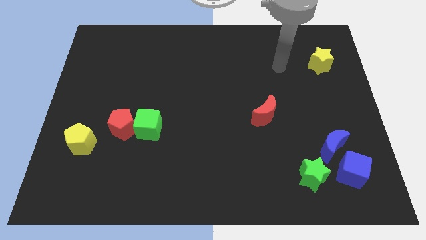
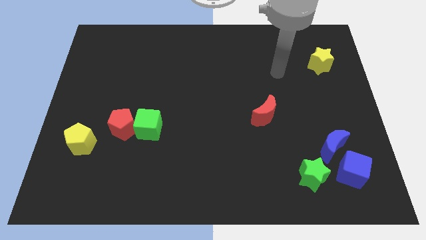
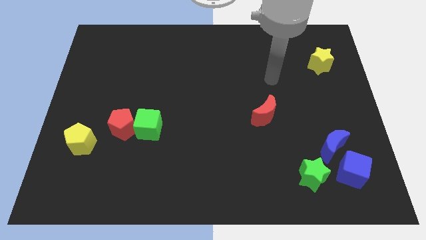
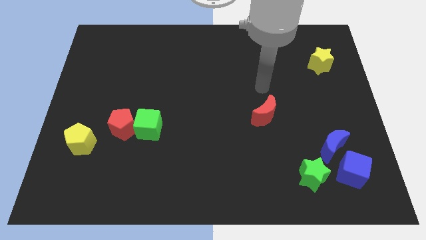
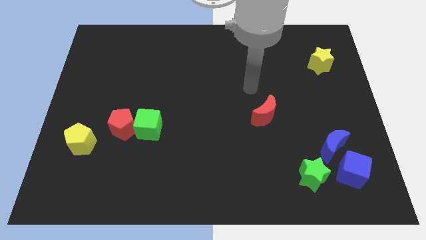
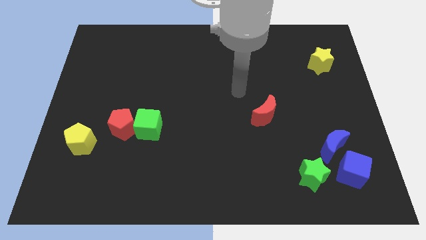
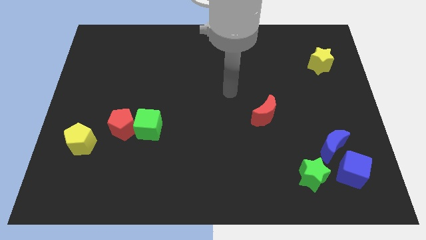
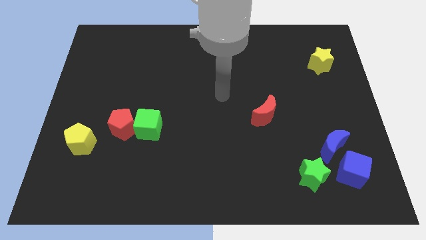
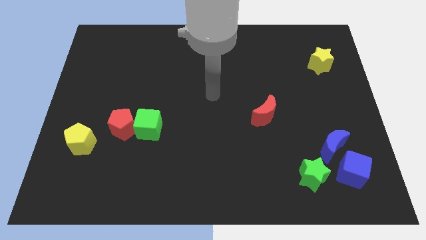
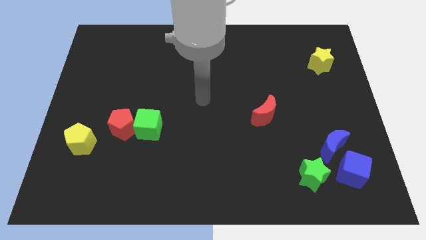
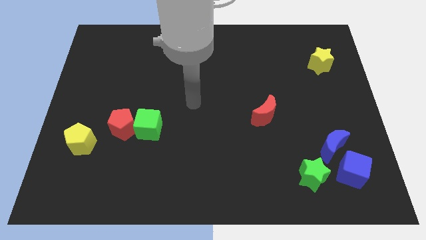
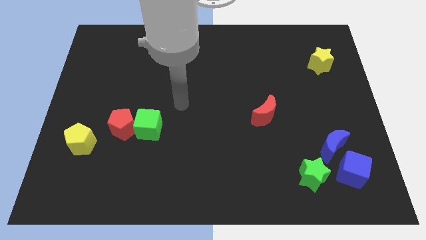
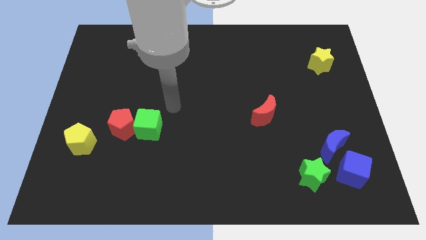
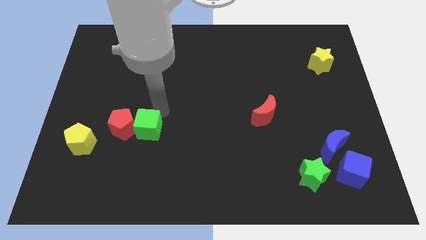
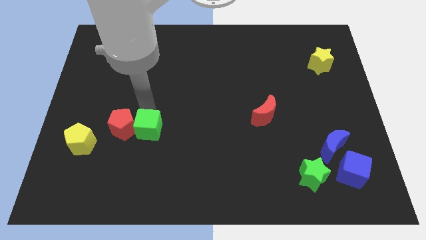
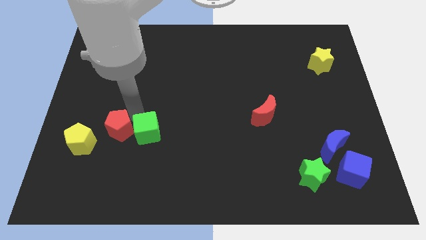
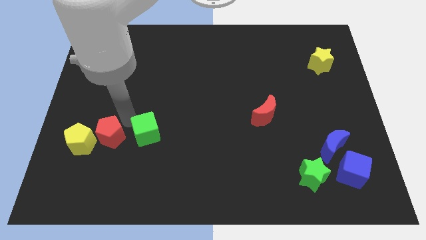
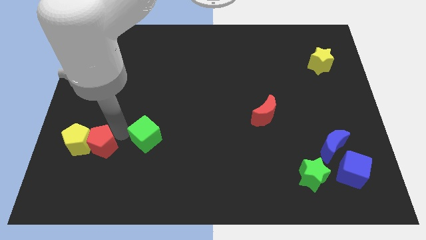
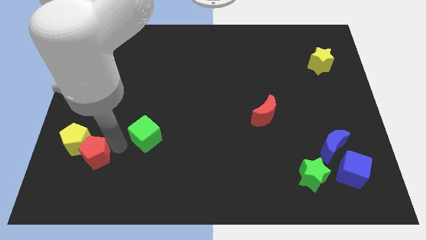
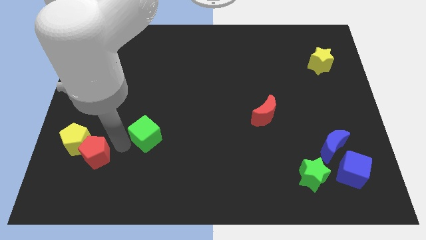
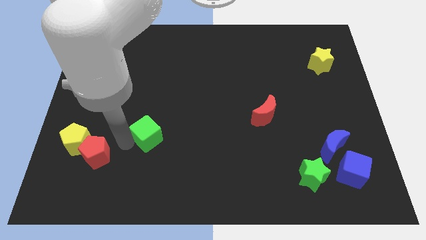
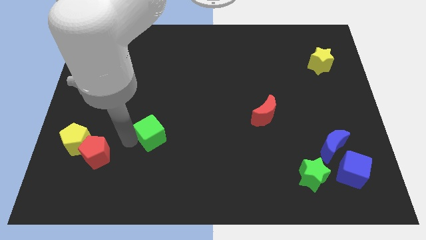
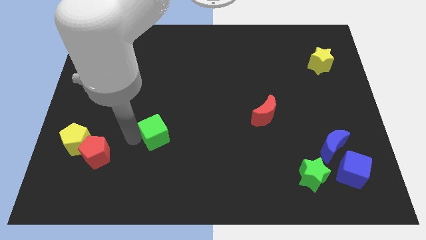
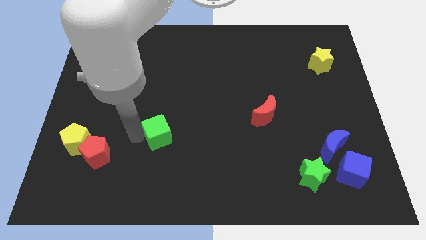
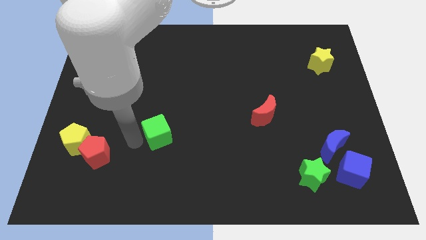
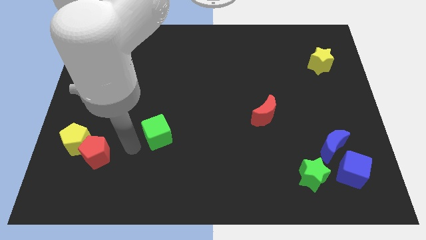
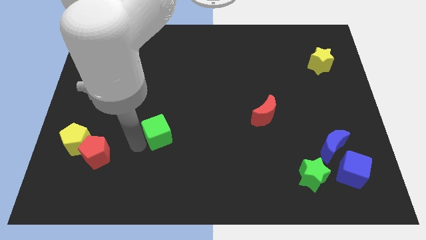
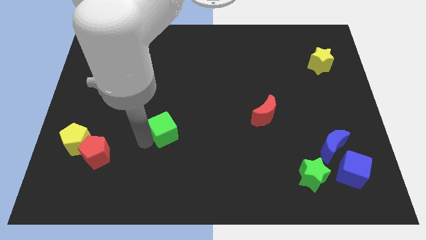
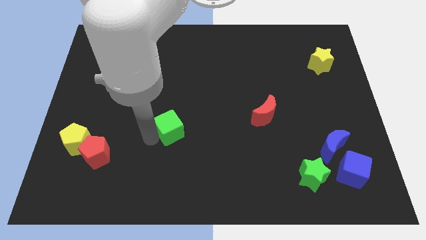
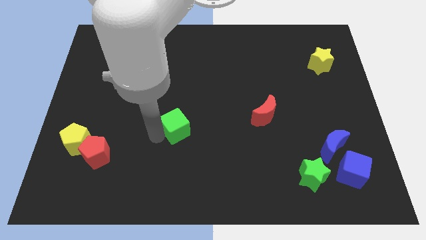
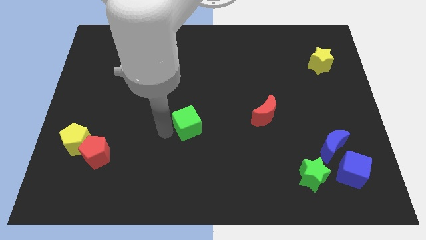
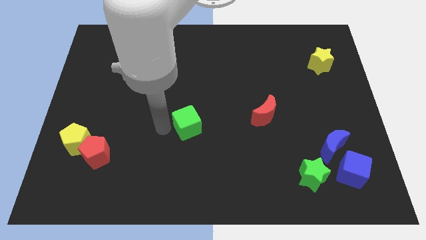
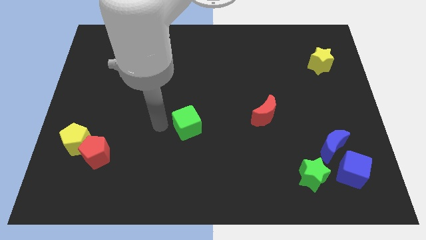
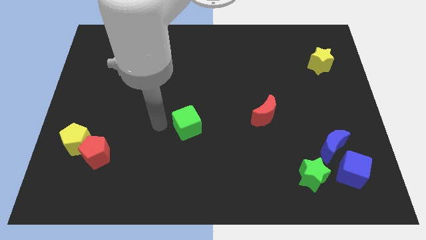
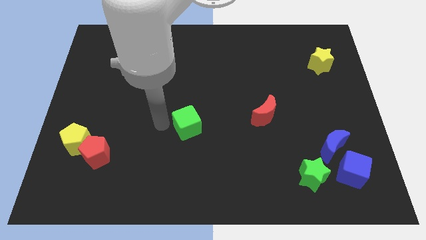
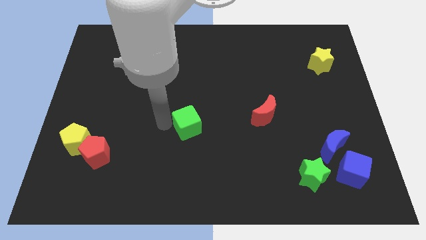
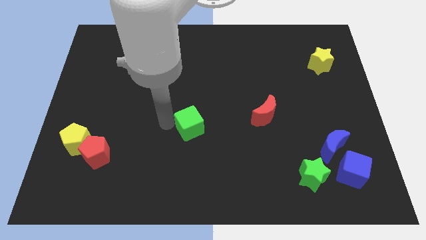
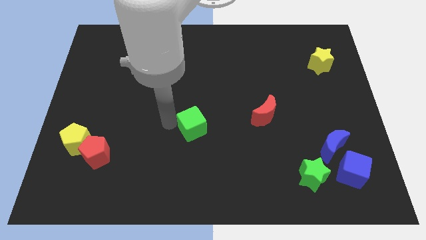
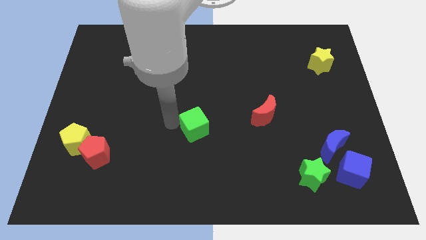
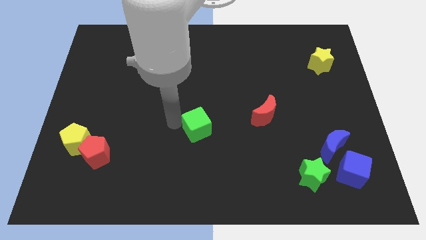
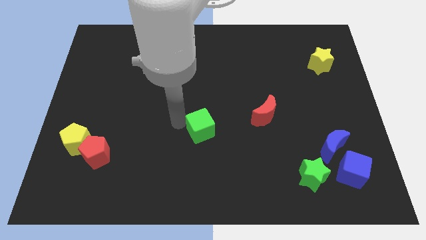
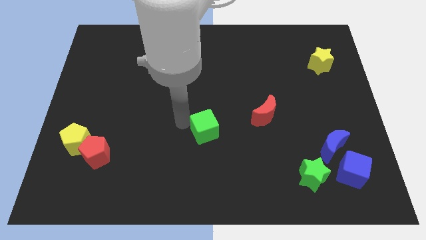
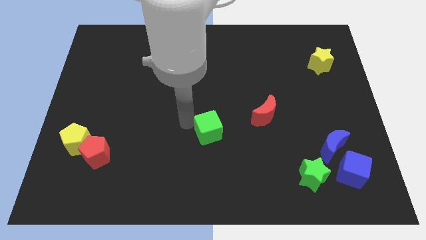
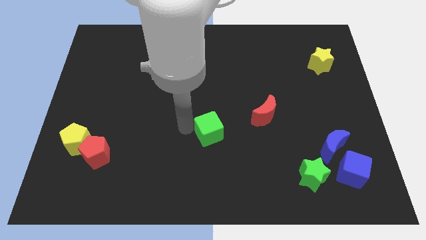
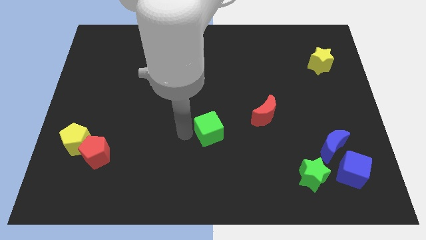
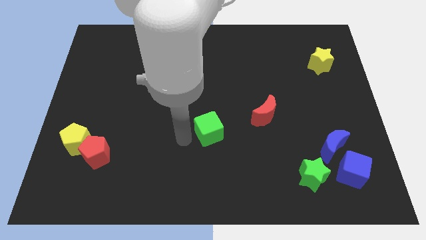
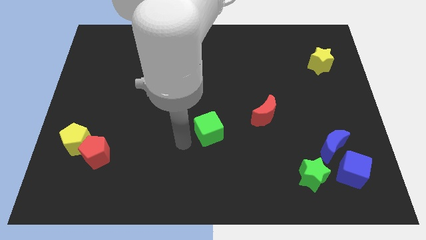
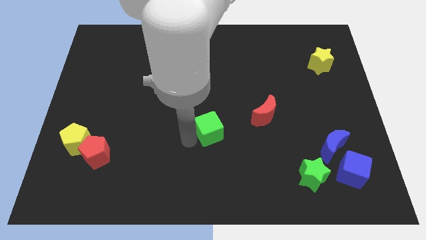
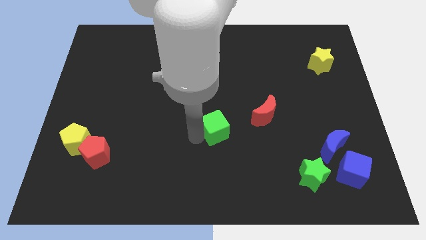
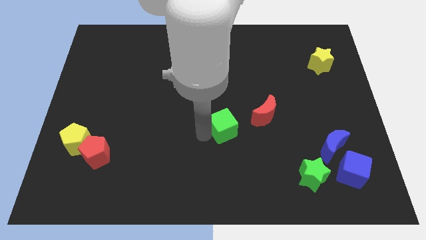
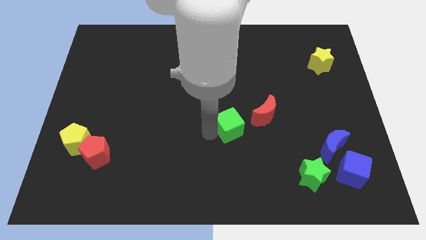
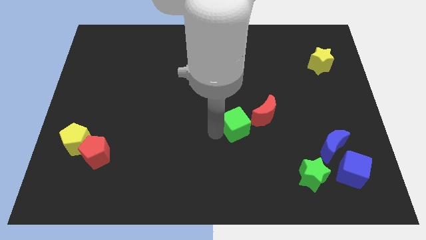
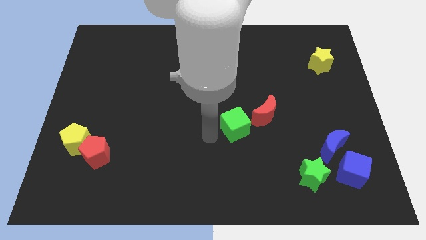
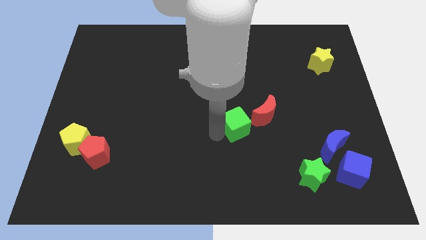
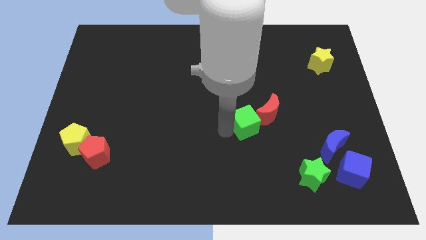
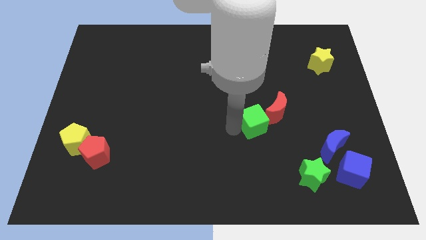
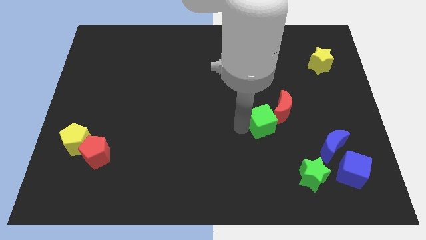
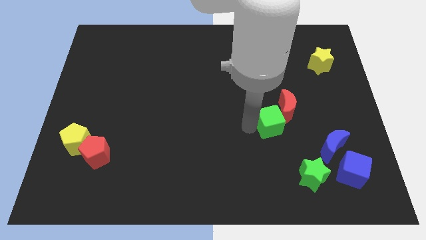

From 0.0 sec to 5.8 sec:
push the green cube to the red moon

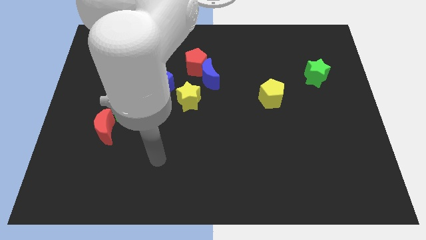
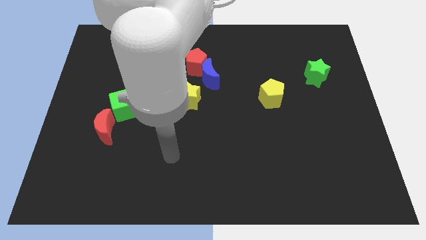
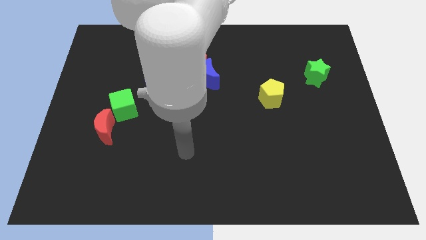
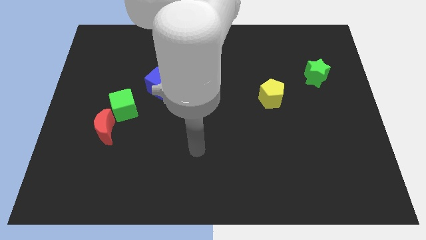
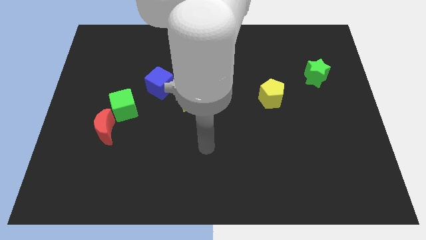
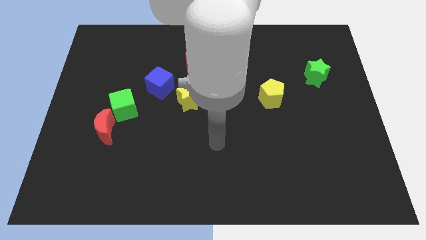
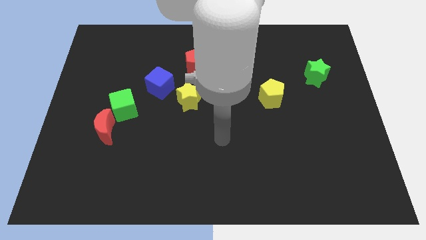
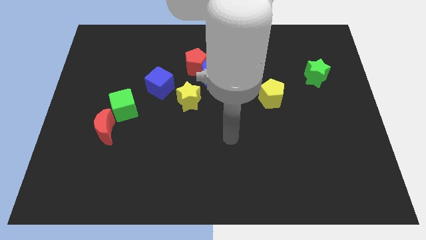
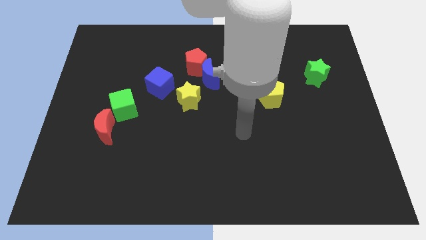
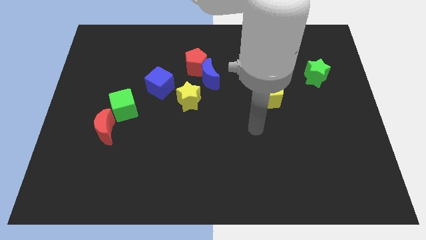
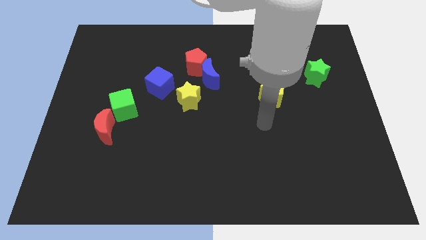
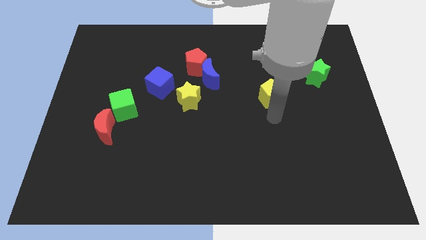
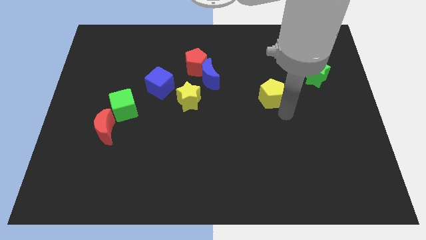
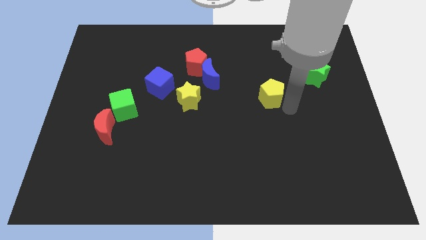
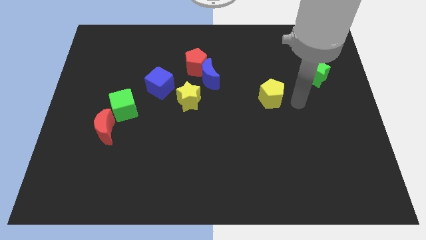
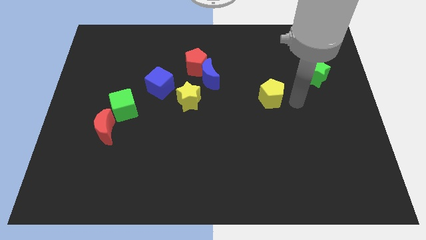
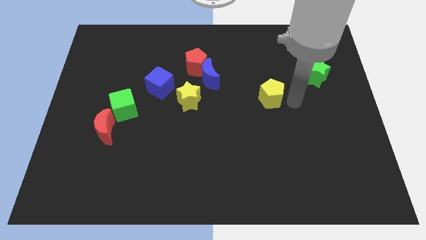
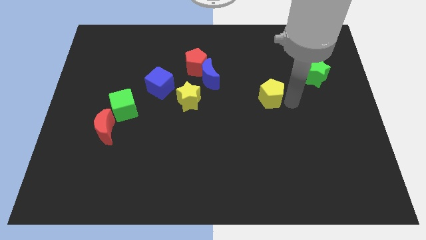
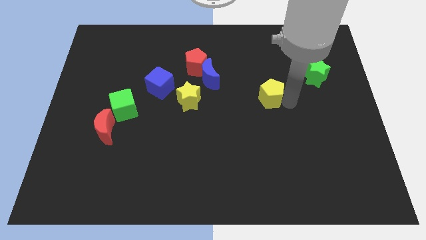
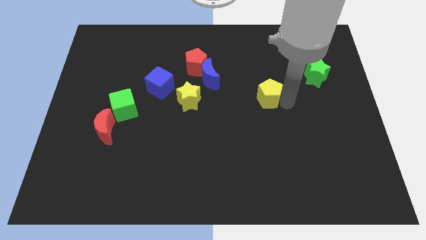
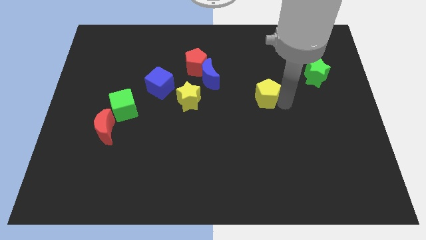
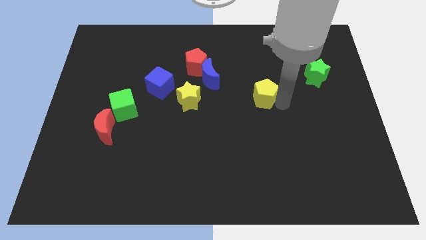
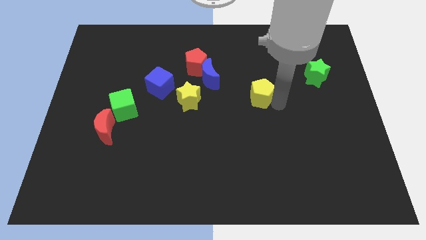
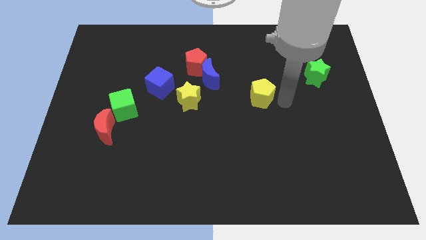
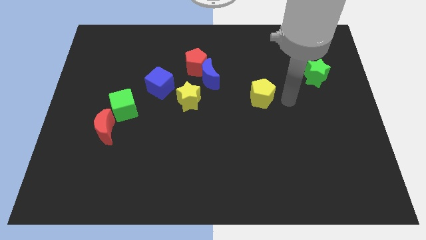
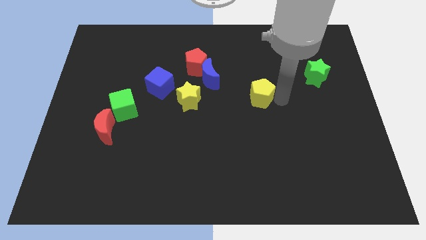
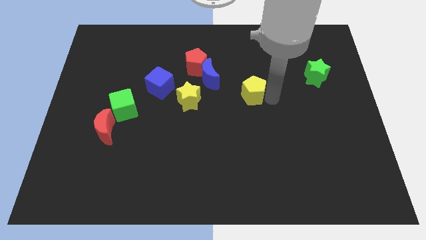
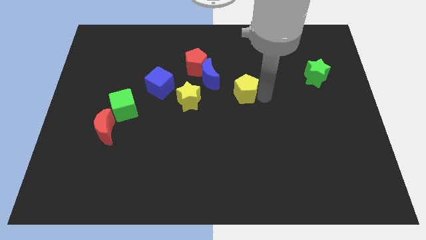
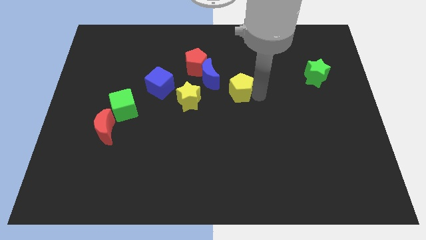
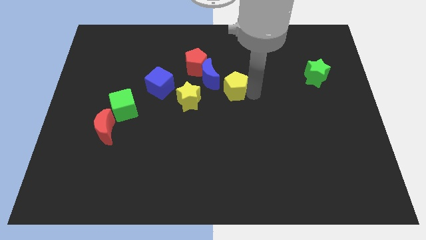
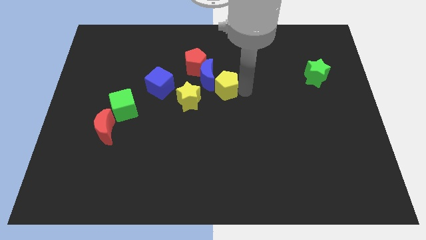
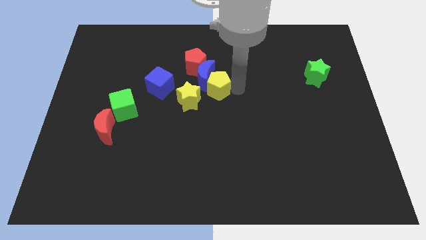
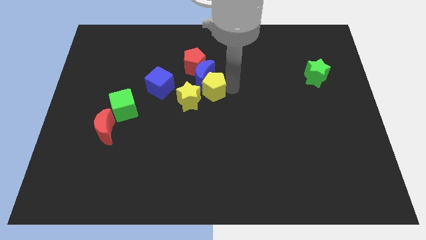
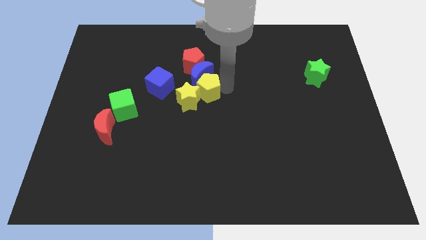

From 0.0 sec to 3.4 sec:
move the yellow pentagon to the yellow star
